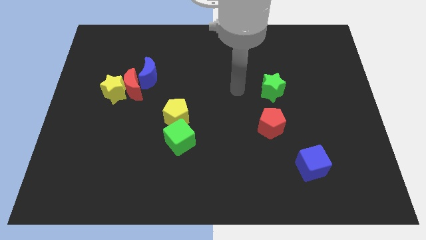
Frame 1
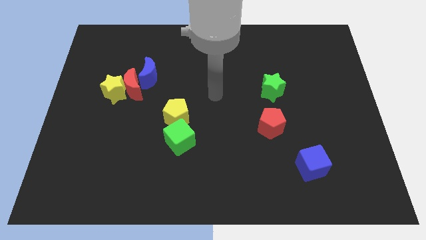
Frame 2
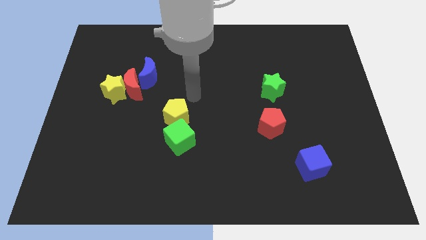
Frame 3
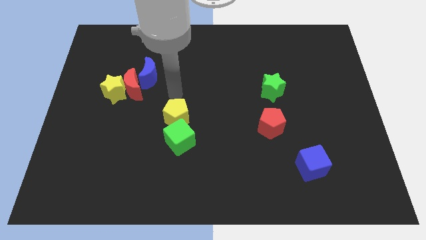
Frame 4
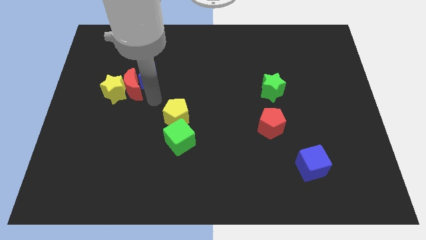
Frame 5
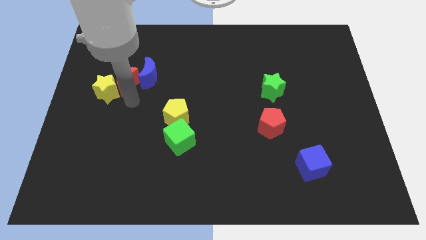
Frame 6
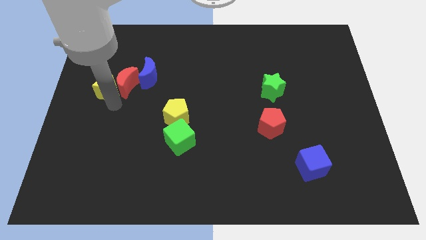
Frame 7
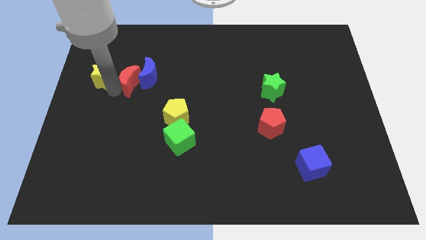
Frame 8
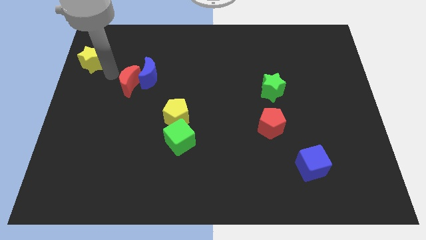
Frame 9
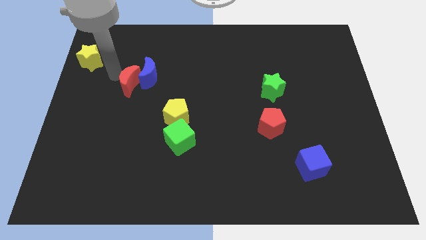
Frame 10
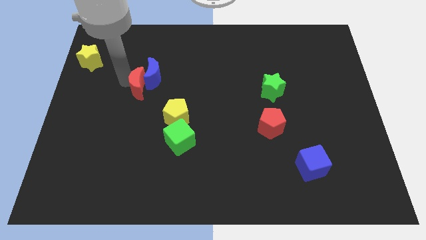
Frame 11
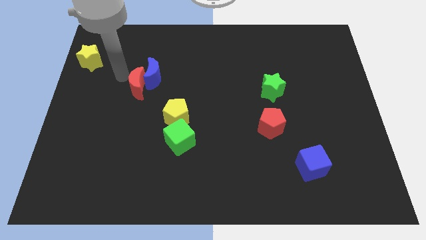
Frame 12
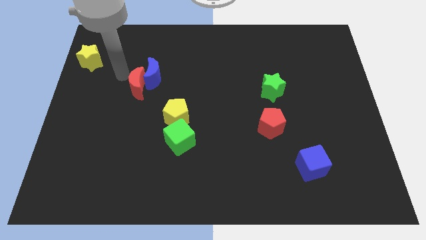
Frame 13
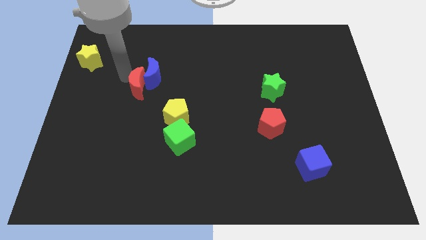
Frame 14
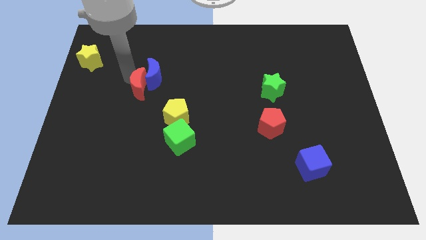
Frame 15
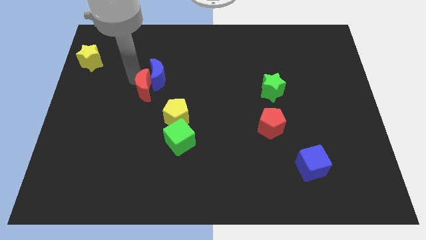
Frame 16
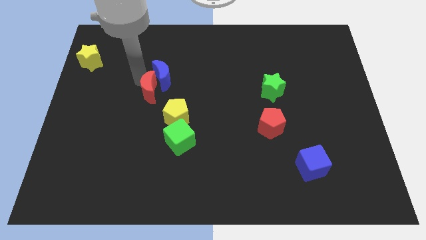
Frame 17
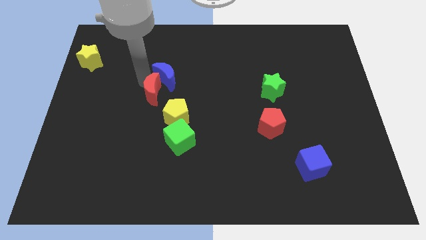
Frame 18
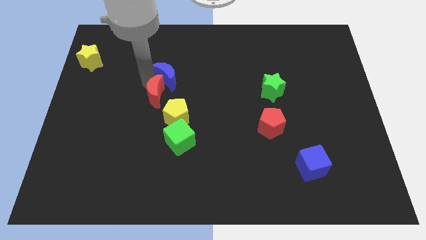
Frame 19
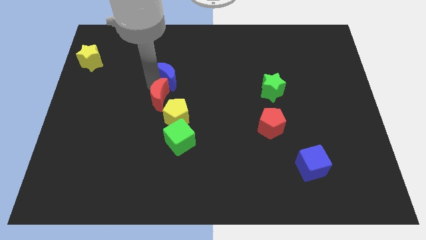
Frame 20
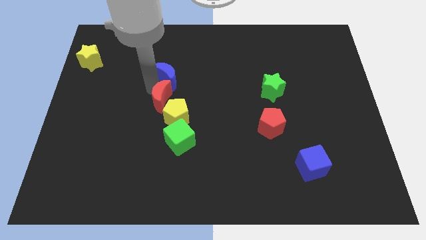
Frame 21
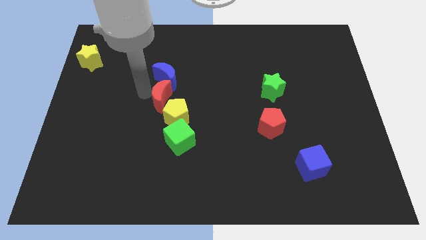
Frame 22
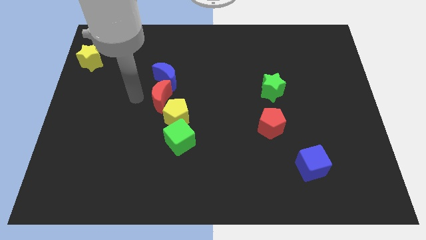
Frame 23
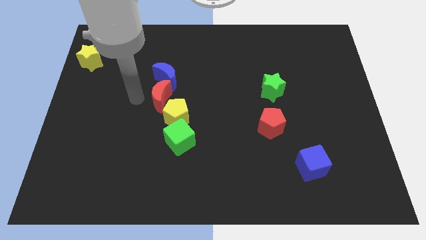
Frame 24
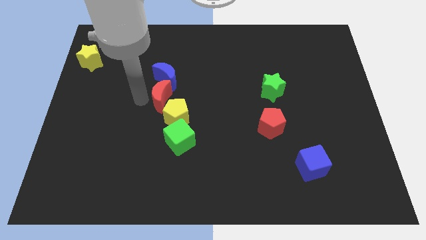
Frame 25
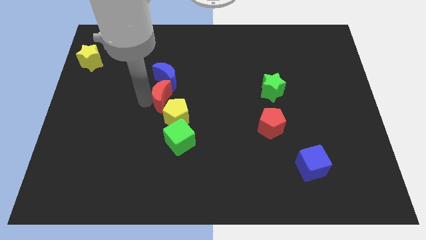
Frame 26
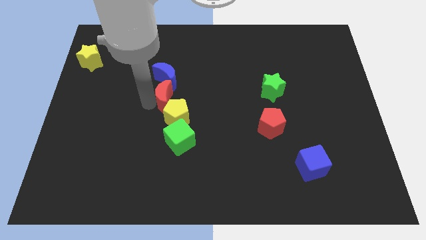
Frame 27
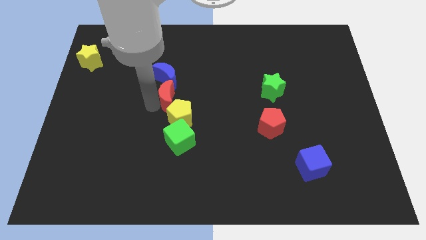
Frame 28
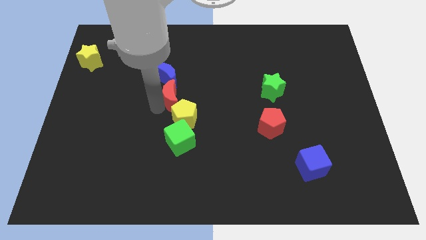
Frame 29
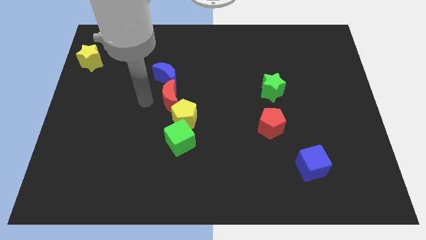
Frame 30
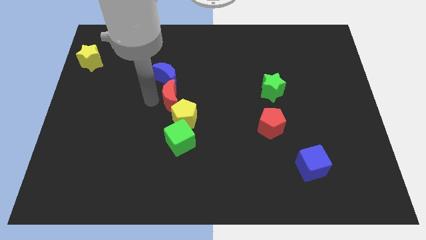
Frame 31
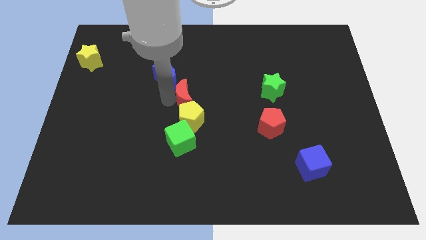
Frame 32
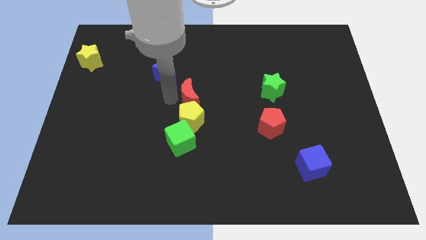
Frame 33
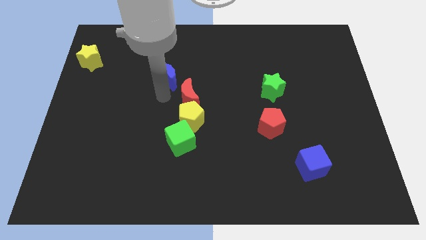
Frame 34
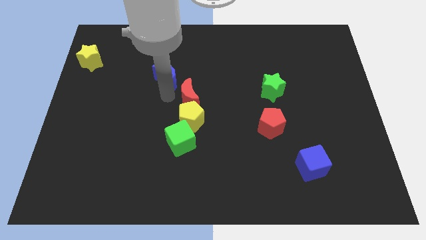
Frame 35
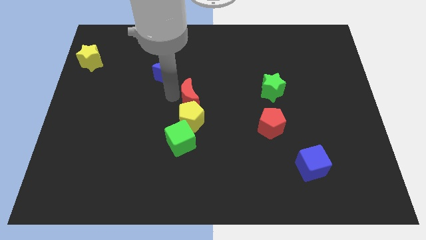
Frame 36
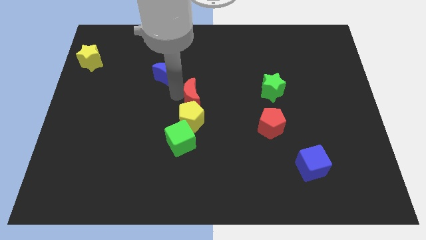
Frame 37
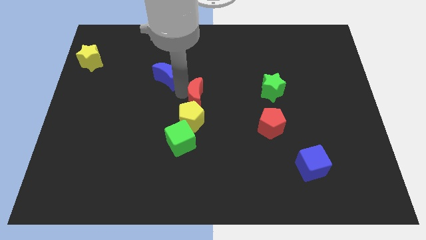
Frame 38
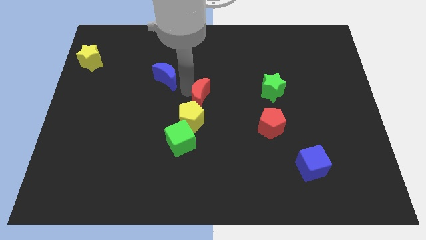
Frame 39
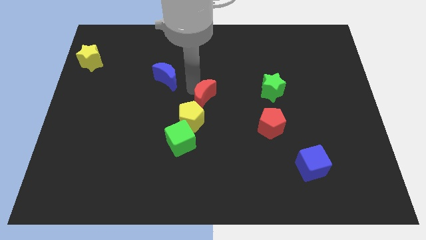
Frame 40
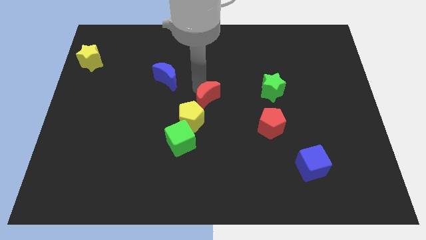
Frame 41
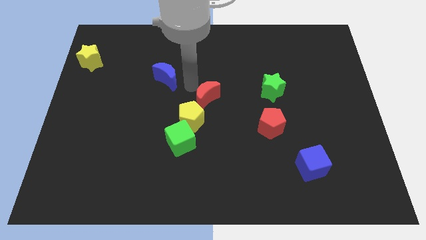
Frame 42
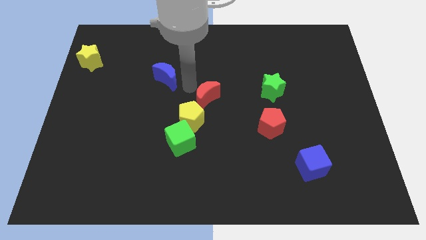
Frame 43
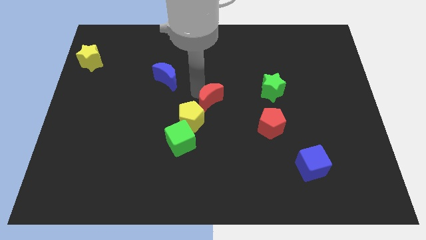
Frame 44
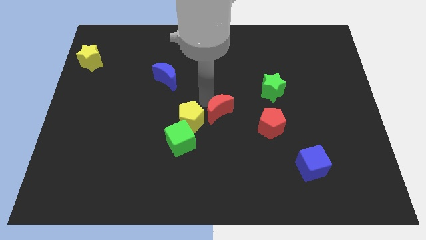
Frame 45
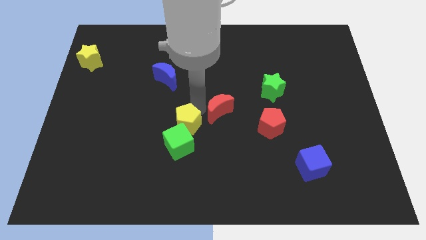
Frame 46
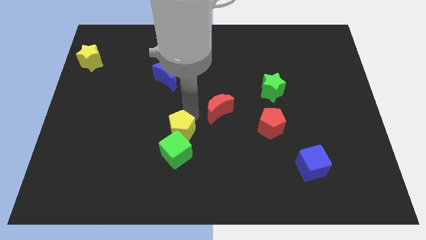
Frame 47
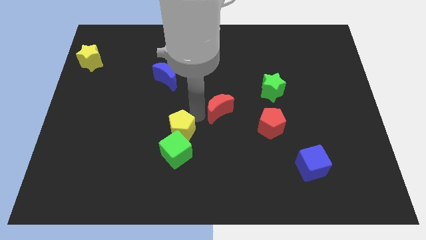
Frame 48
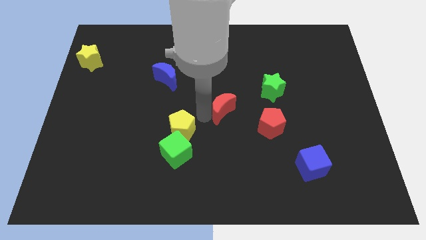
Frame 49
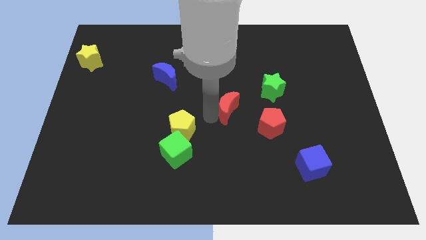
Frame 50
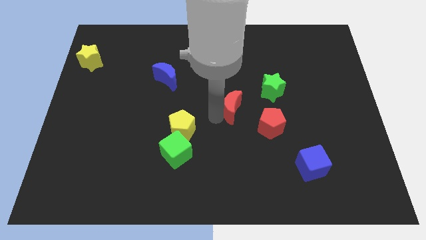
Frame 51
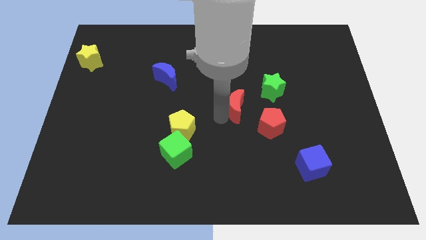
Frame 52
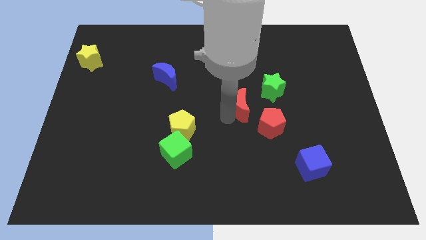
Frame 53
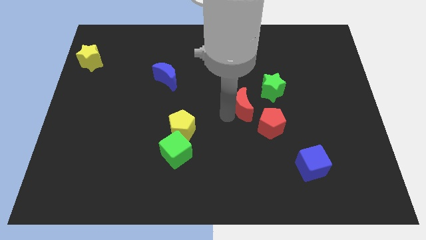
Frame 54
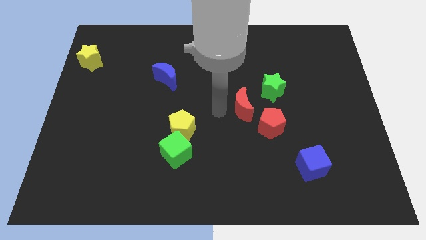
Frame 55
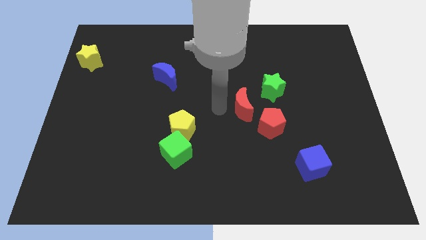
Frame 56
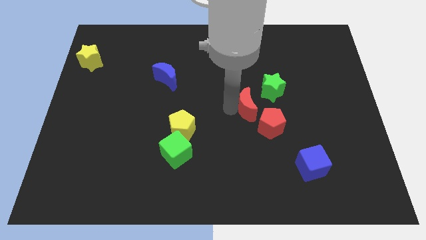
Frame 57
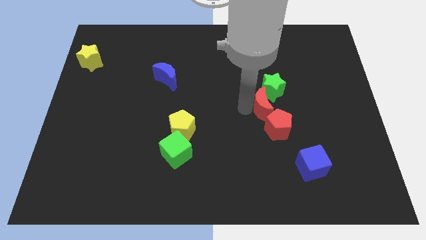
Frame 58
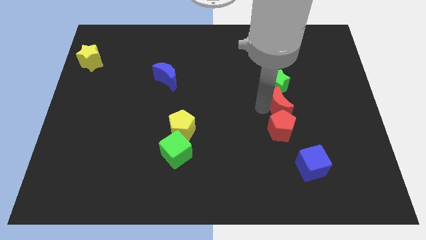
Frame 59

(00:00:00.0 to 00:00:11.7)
push the red moon diagonally up and to the right of the red pentagon

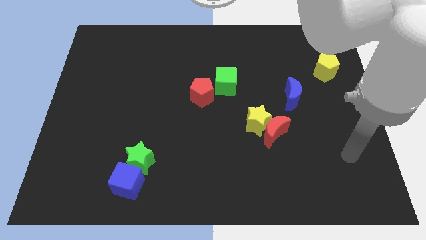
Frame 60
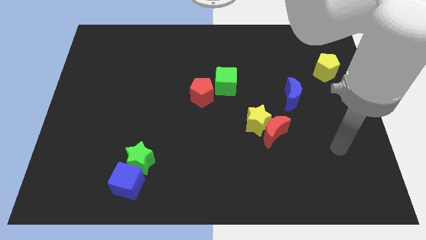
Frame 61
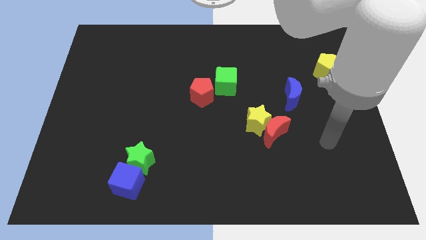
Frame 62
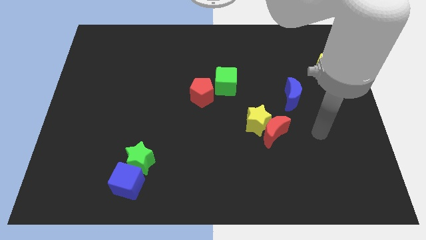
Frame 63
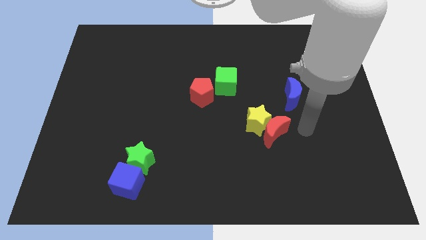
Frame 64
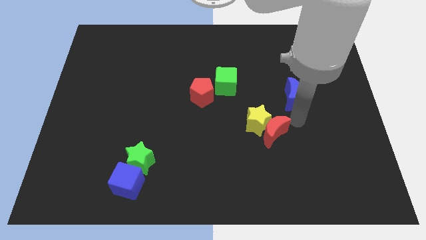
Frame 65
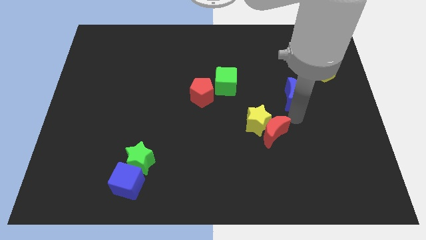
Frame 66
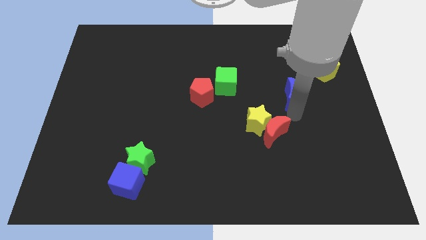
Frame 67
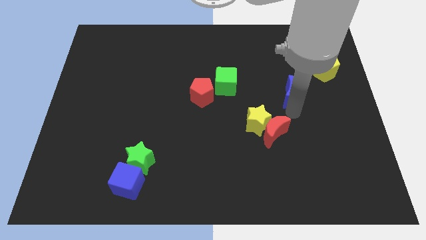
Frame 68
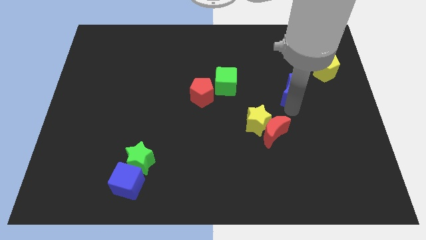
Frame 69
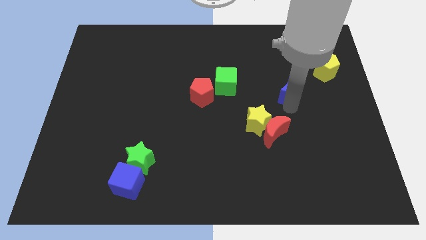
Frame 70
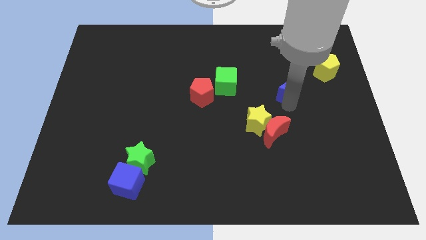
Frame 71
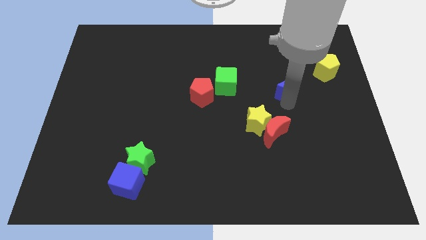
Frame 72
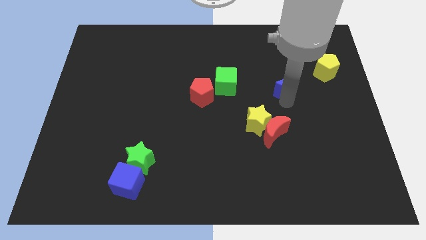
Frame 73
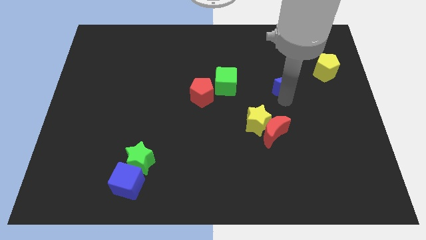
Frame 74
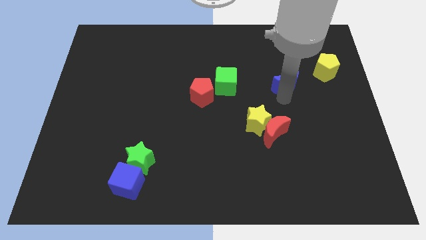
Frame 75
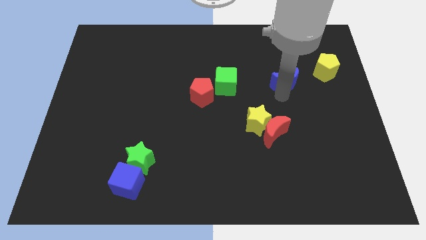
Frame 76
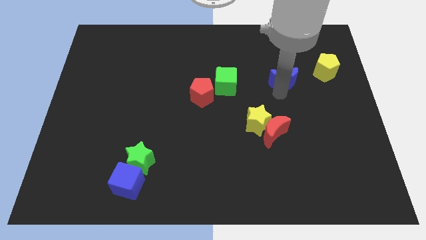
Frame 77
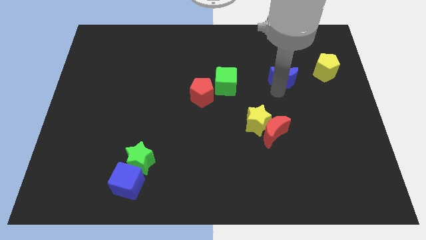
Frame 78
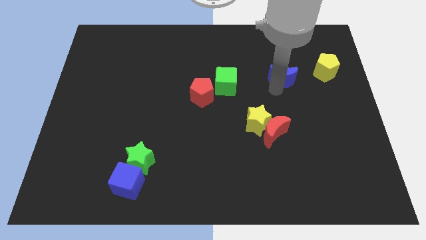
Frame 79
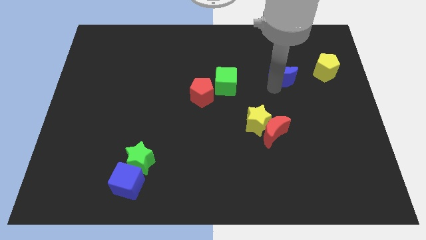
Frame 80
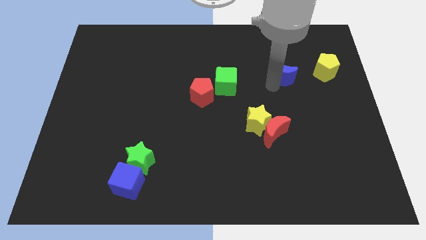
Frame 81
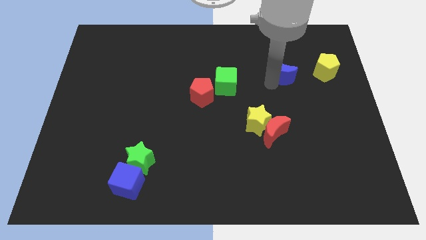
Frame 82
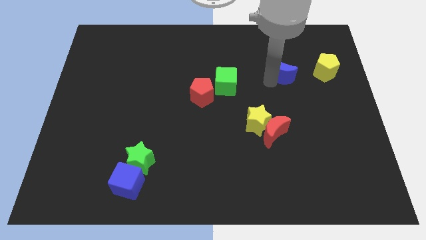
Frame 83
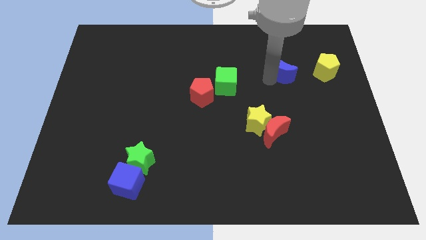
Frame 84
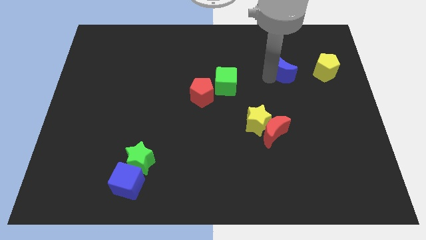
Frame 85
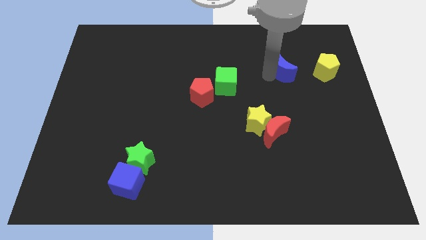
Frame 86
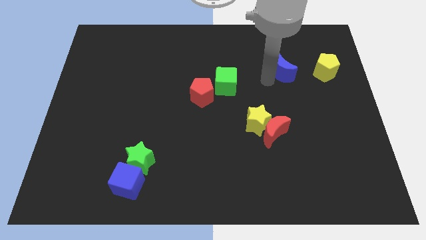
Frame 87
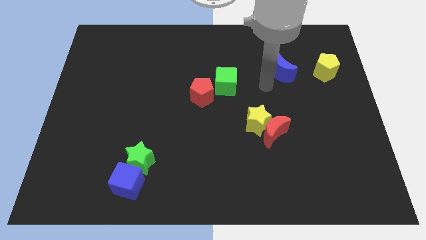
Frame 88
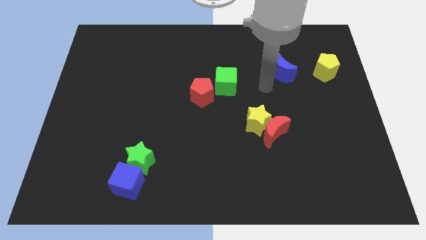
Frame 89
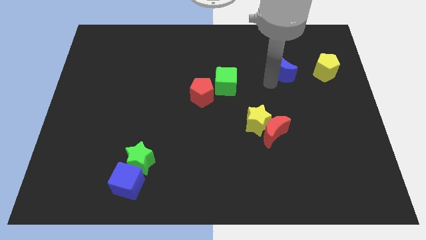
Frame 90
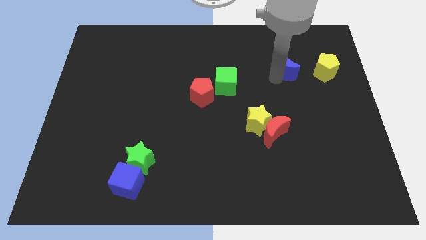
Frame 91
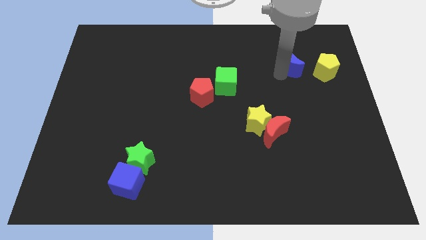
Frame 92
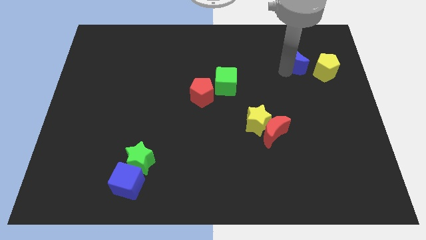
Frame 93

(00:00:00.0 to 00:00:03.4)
slide the blue moon to the top left of the yellow pentagon
